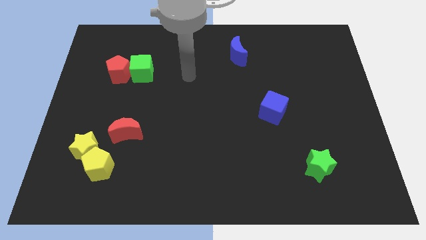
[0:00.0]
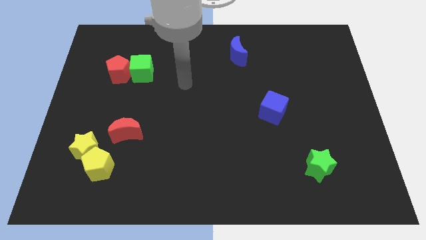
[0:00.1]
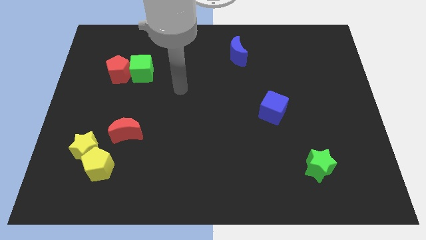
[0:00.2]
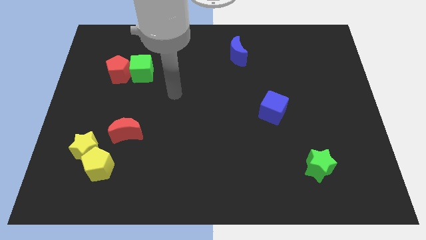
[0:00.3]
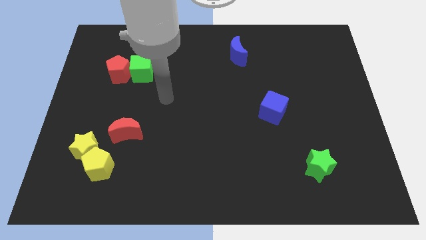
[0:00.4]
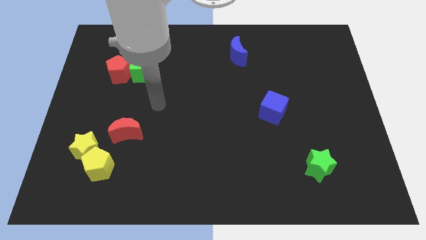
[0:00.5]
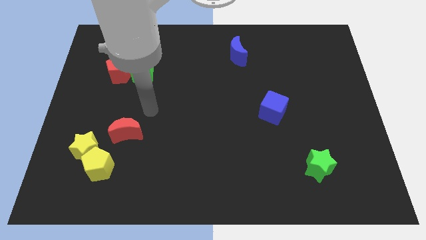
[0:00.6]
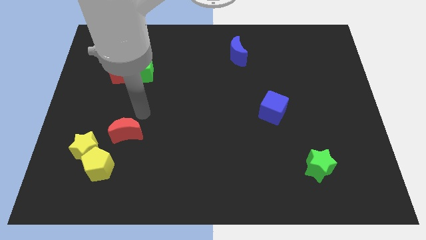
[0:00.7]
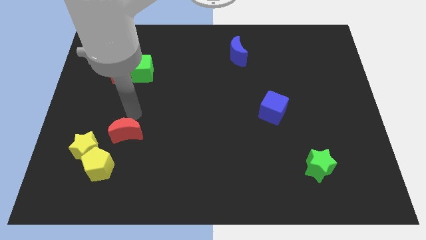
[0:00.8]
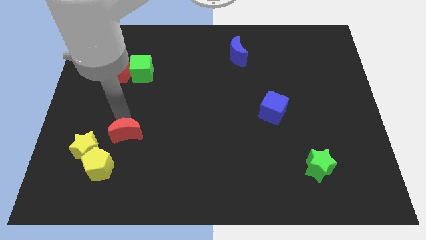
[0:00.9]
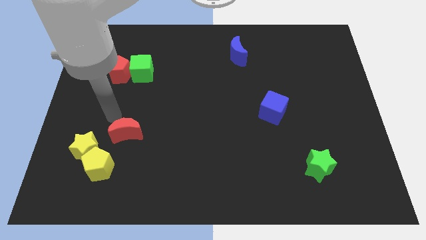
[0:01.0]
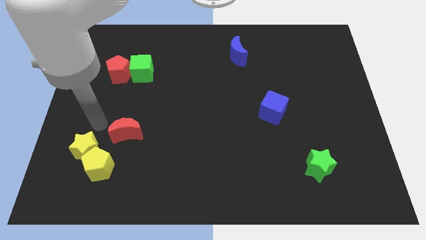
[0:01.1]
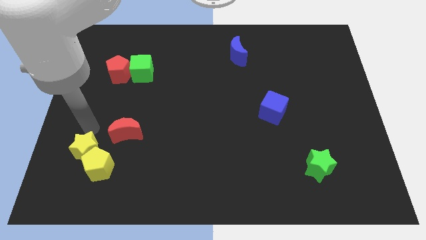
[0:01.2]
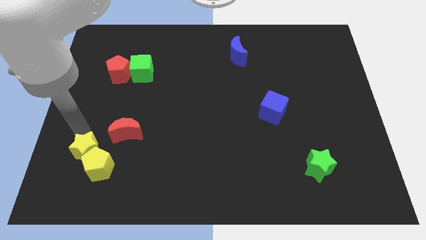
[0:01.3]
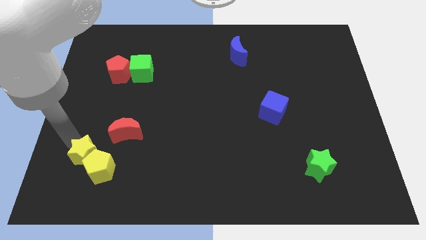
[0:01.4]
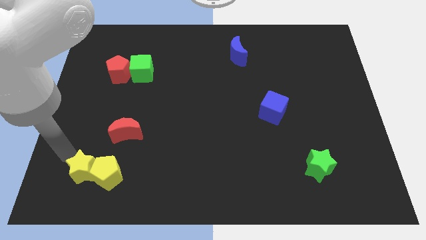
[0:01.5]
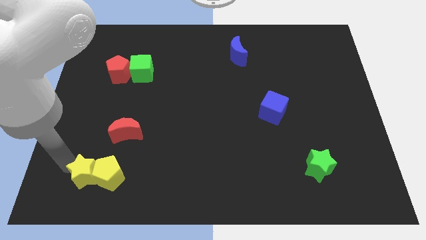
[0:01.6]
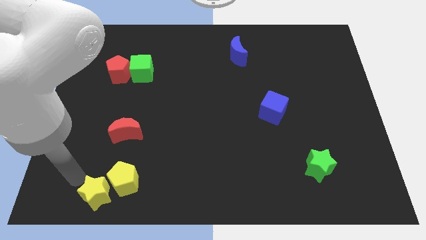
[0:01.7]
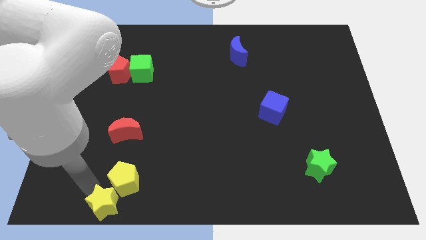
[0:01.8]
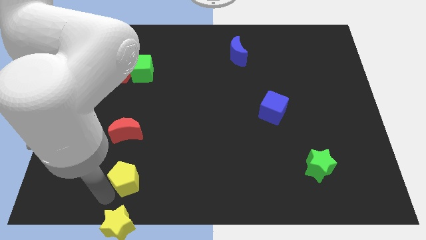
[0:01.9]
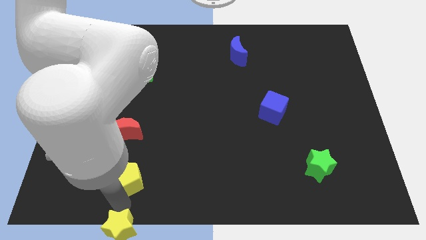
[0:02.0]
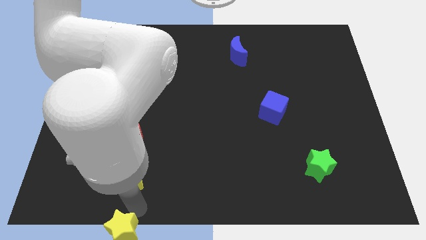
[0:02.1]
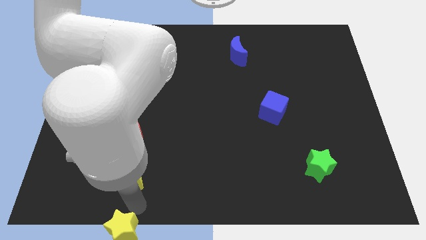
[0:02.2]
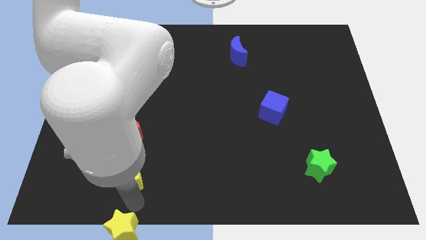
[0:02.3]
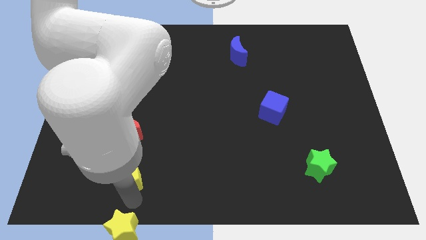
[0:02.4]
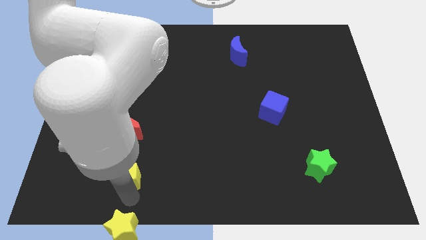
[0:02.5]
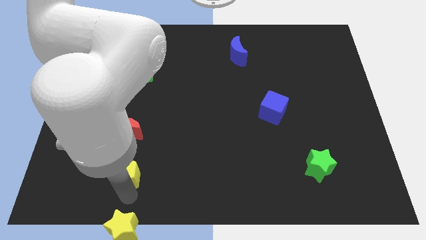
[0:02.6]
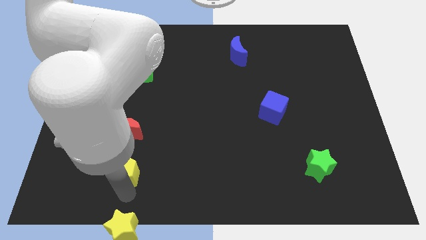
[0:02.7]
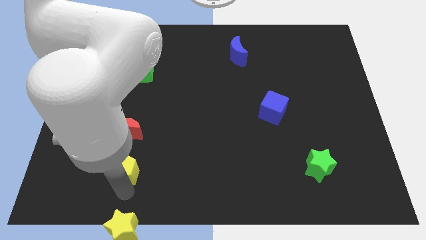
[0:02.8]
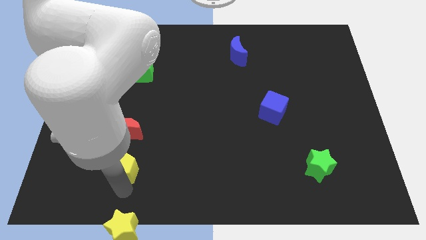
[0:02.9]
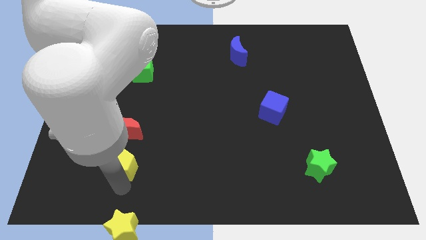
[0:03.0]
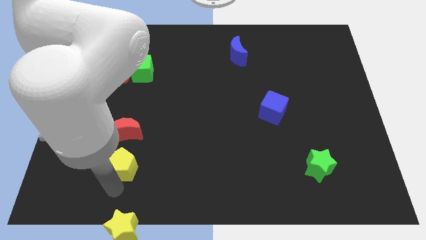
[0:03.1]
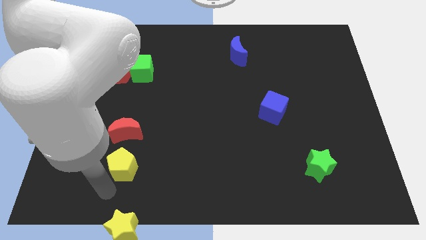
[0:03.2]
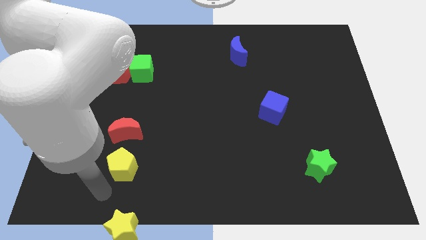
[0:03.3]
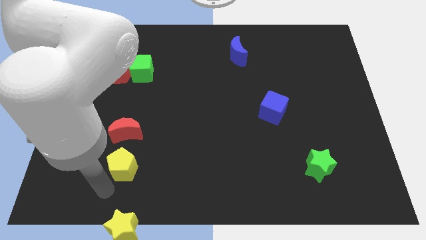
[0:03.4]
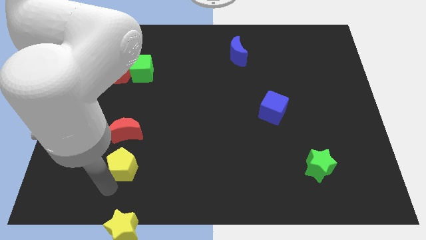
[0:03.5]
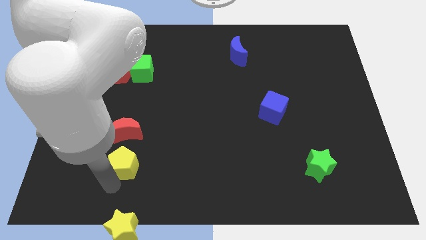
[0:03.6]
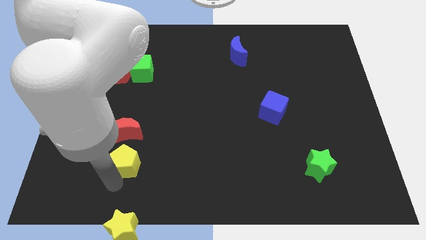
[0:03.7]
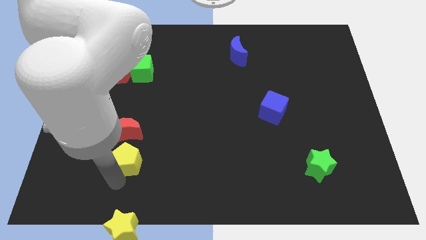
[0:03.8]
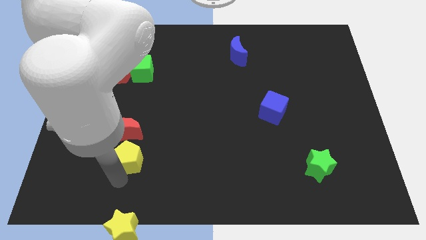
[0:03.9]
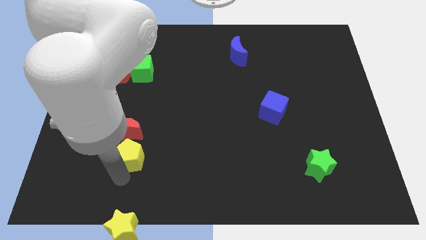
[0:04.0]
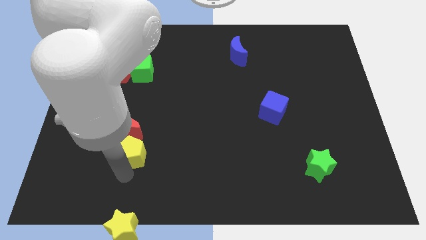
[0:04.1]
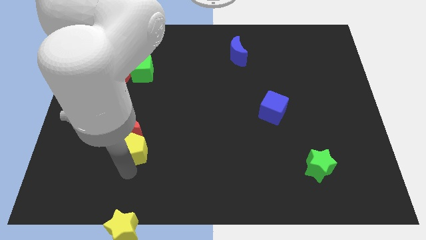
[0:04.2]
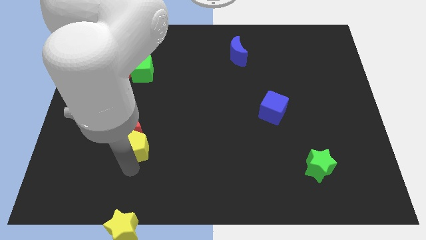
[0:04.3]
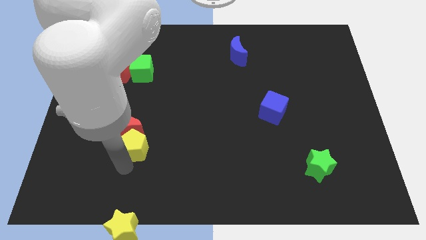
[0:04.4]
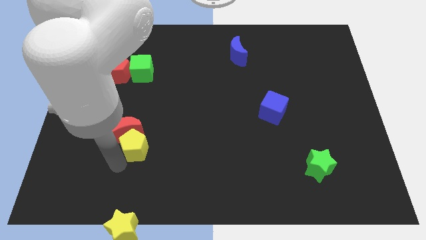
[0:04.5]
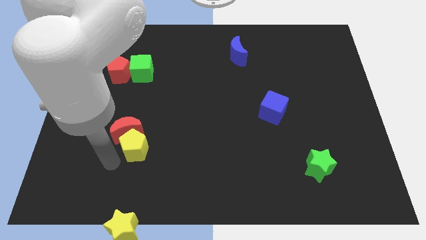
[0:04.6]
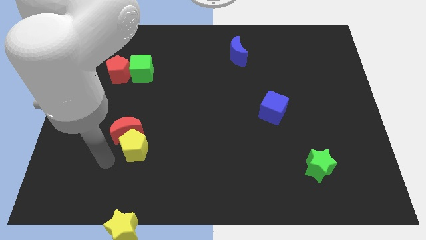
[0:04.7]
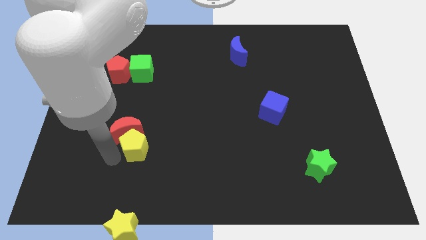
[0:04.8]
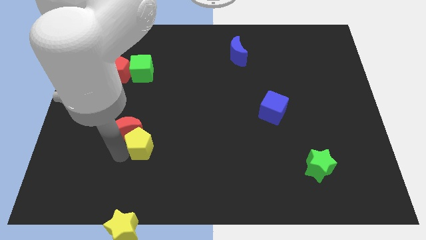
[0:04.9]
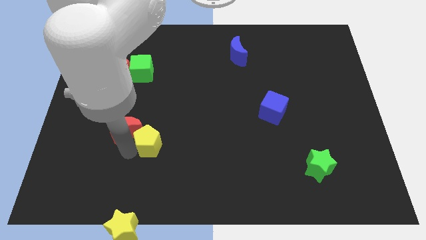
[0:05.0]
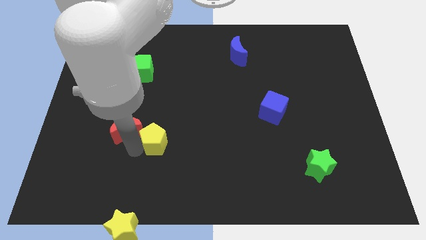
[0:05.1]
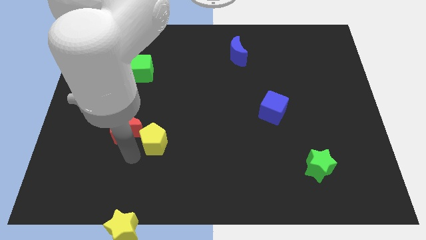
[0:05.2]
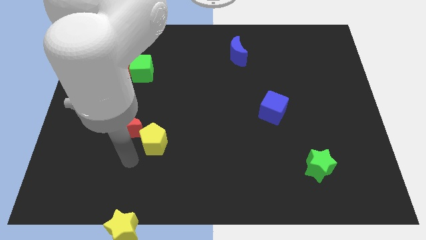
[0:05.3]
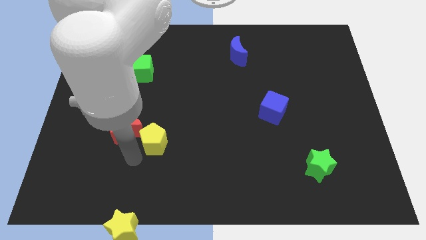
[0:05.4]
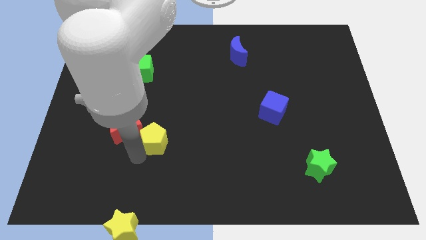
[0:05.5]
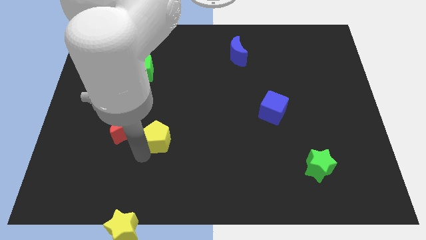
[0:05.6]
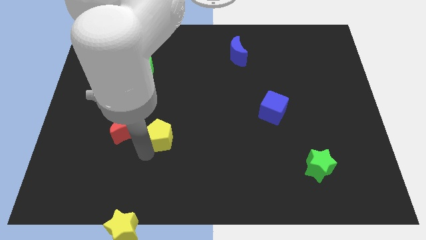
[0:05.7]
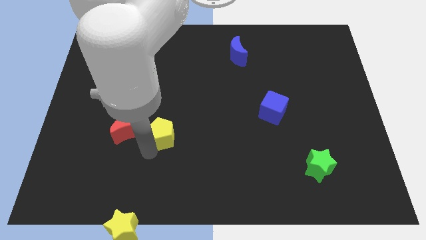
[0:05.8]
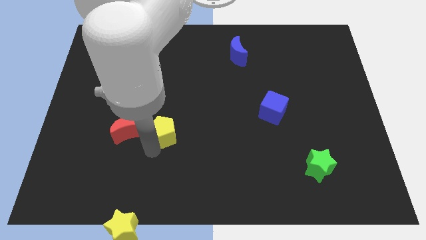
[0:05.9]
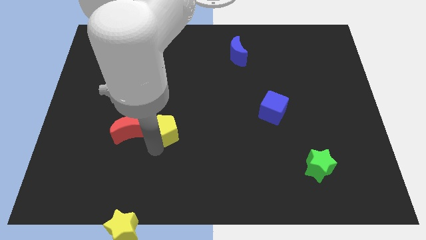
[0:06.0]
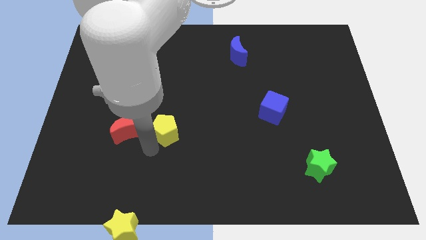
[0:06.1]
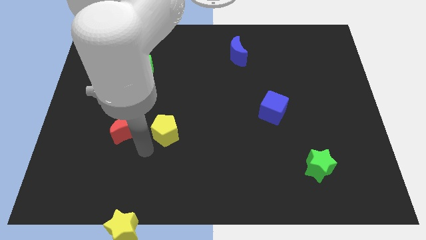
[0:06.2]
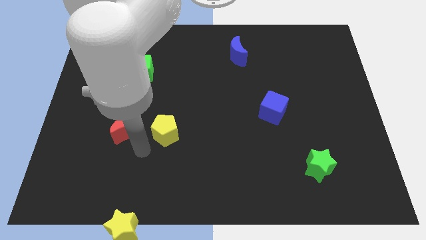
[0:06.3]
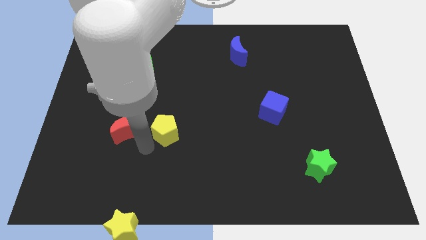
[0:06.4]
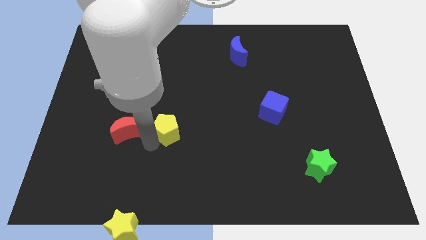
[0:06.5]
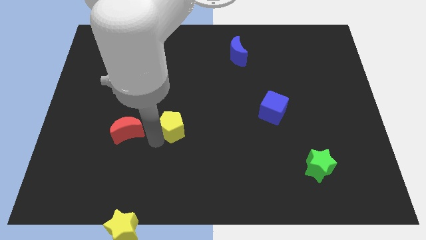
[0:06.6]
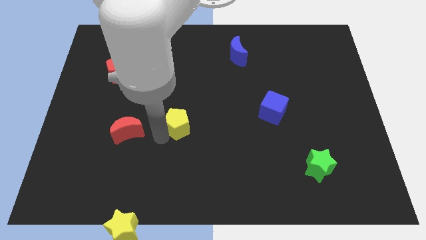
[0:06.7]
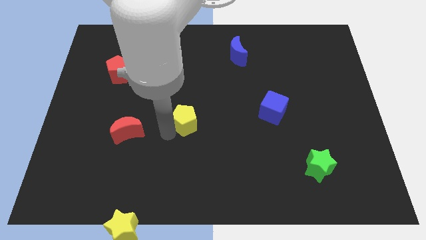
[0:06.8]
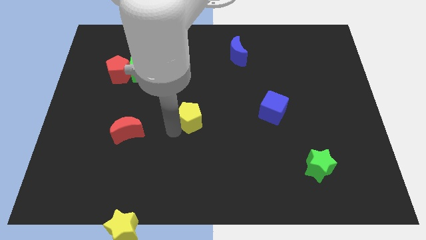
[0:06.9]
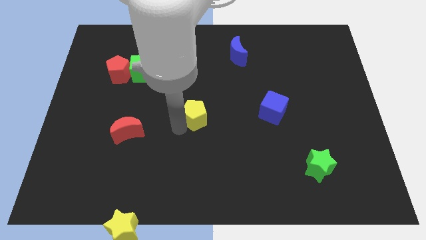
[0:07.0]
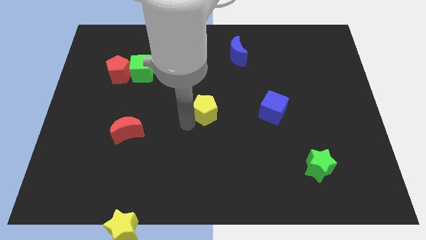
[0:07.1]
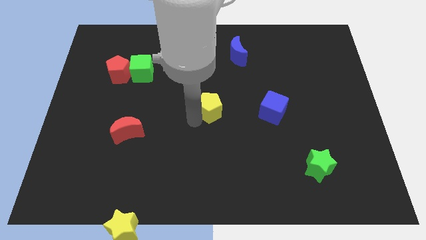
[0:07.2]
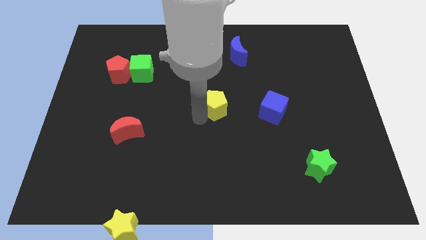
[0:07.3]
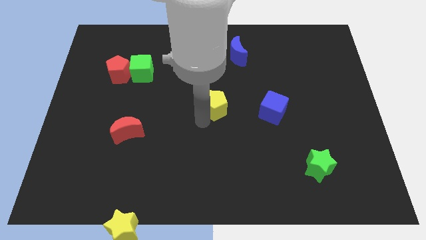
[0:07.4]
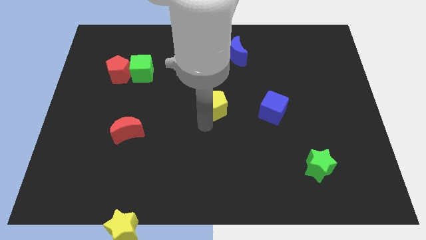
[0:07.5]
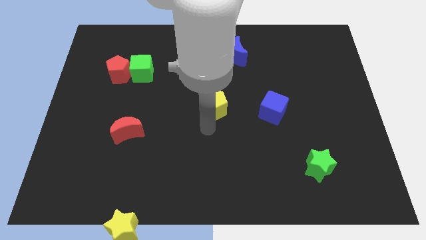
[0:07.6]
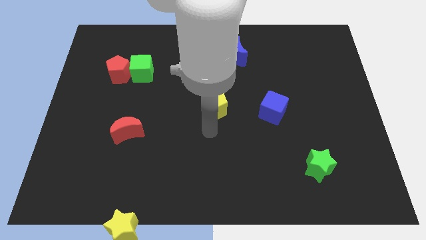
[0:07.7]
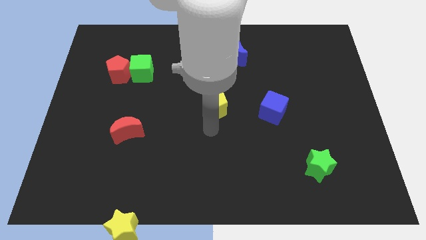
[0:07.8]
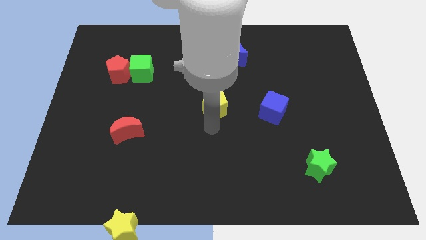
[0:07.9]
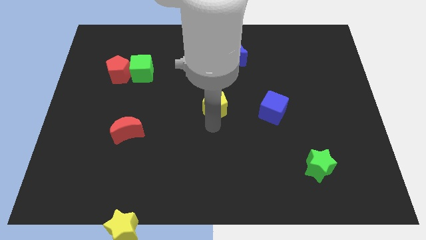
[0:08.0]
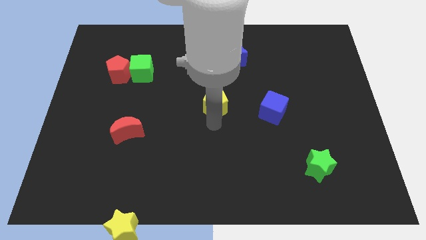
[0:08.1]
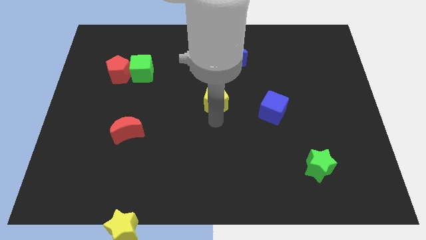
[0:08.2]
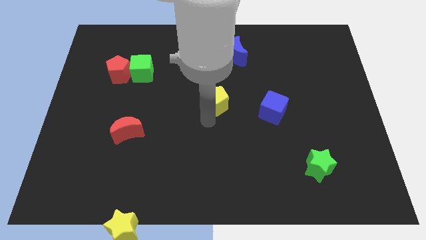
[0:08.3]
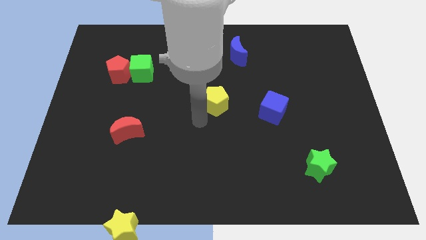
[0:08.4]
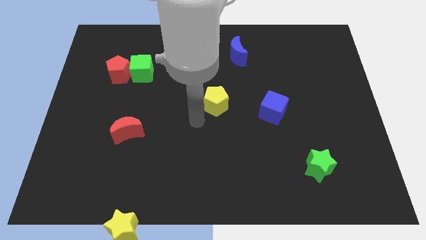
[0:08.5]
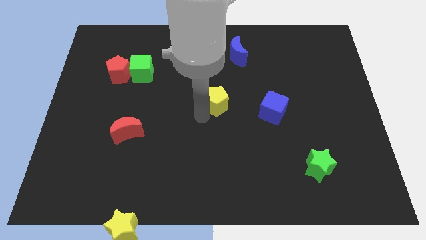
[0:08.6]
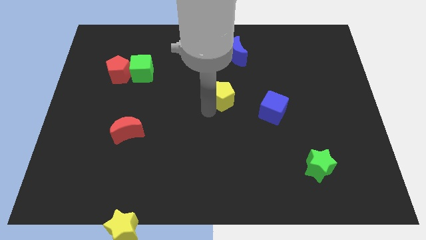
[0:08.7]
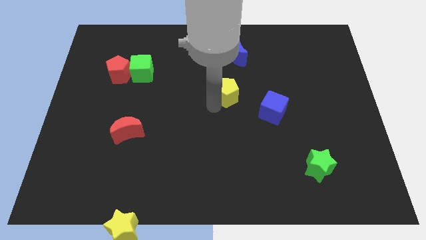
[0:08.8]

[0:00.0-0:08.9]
put the yellow pentagon to the bottom of the blue moon
